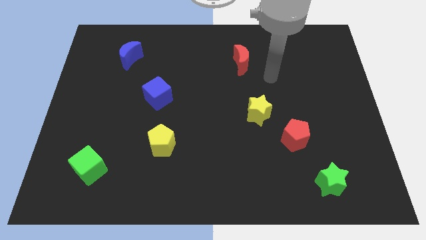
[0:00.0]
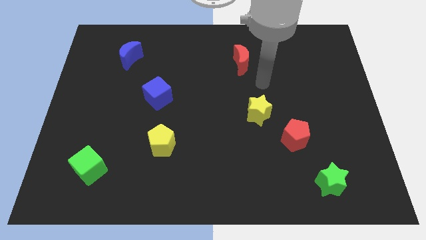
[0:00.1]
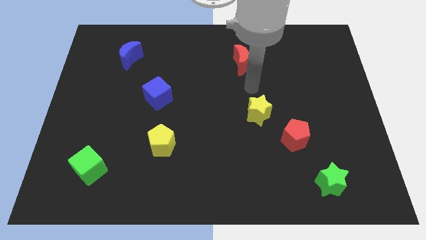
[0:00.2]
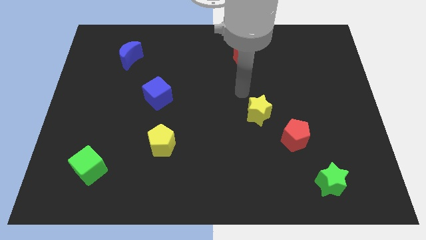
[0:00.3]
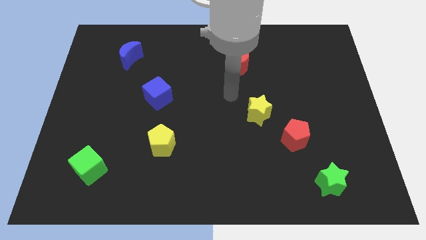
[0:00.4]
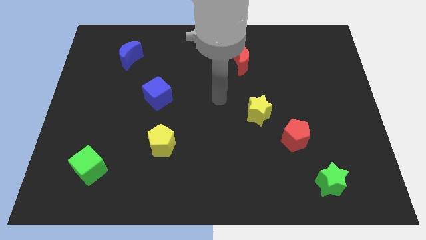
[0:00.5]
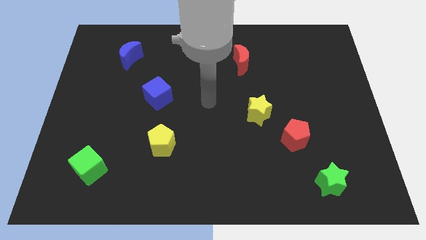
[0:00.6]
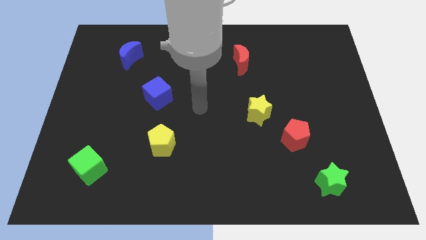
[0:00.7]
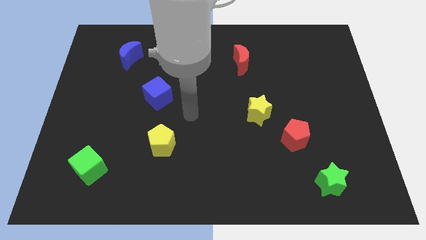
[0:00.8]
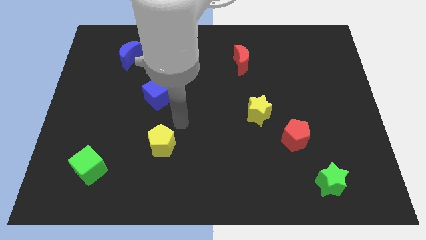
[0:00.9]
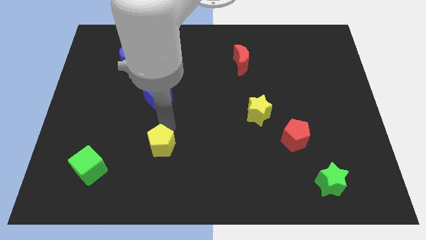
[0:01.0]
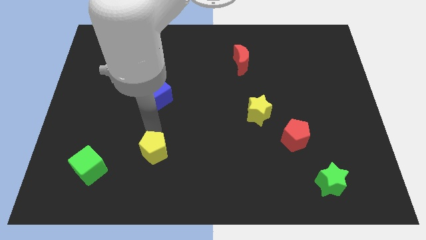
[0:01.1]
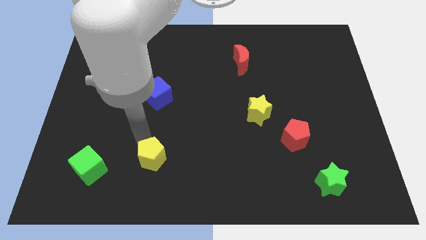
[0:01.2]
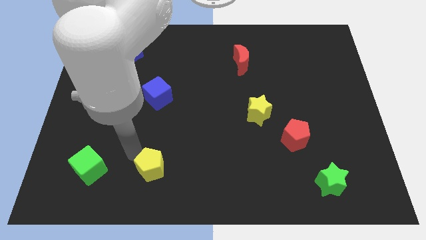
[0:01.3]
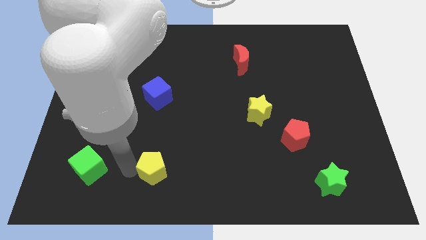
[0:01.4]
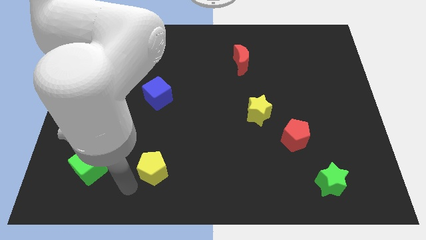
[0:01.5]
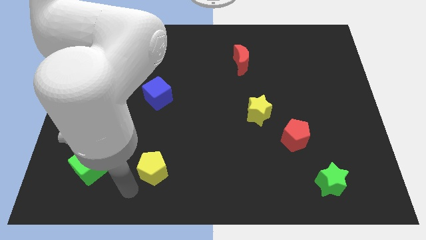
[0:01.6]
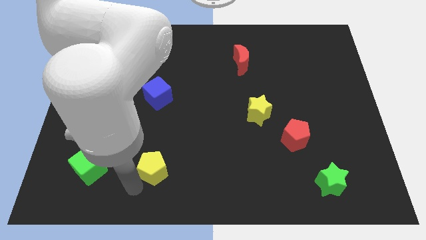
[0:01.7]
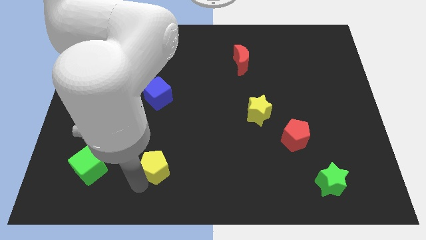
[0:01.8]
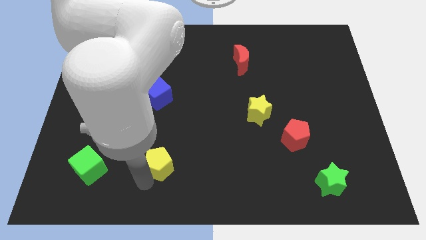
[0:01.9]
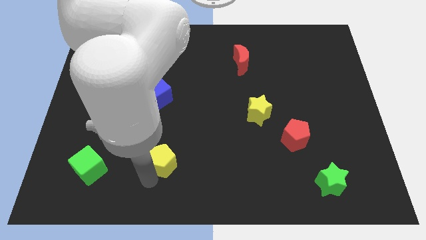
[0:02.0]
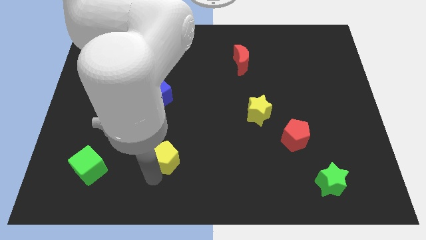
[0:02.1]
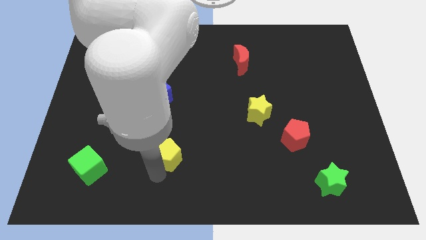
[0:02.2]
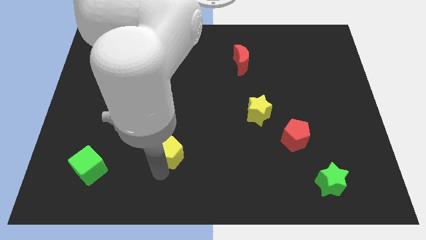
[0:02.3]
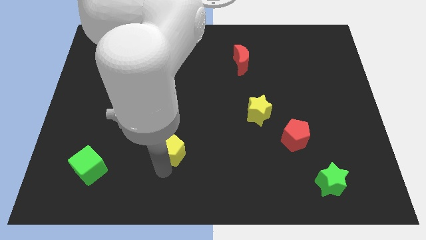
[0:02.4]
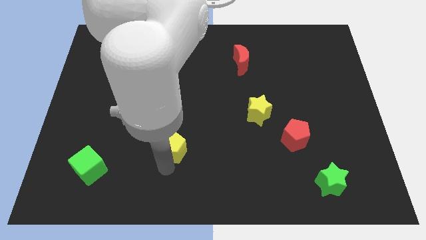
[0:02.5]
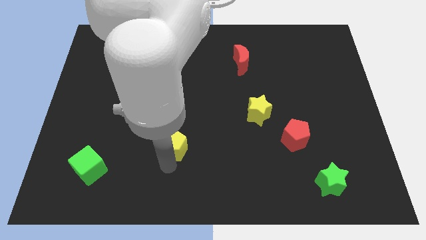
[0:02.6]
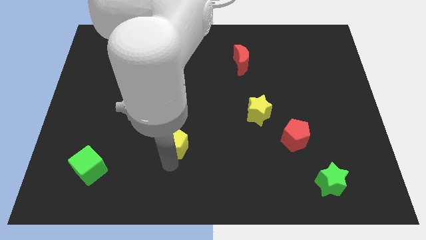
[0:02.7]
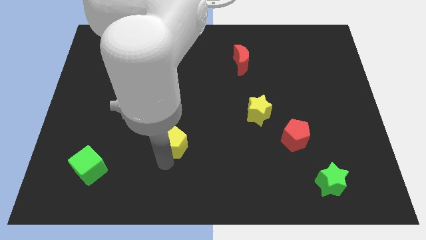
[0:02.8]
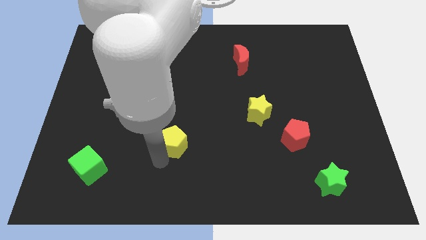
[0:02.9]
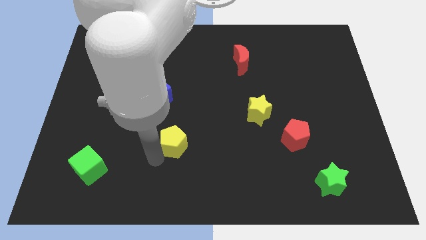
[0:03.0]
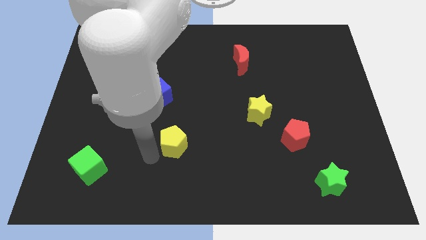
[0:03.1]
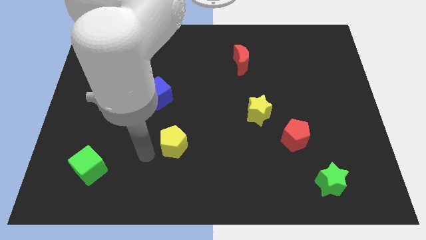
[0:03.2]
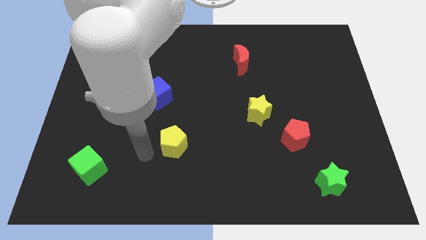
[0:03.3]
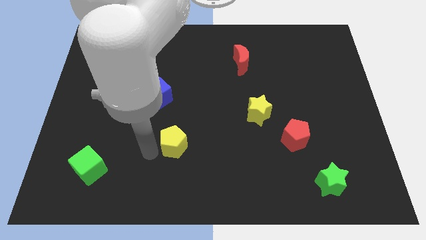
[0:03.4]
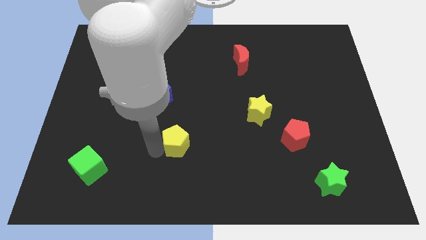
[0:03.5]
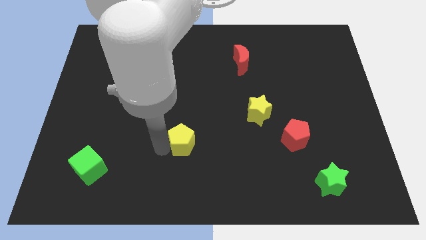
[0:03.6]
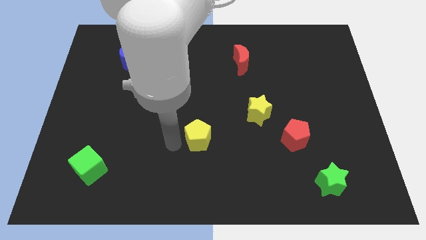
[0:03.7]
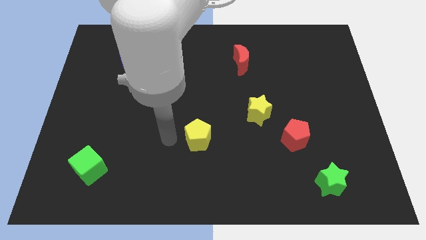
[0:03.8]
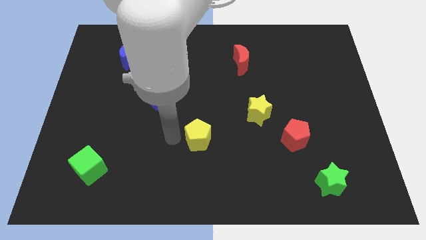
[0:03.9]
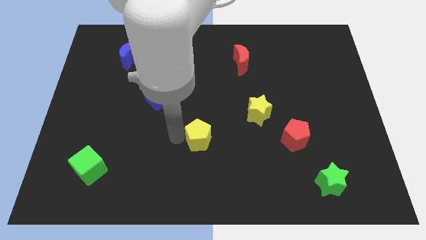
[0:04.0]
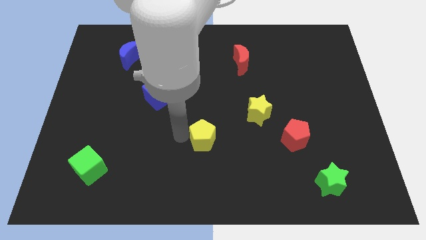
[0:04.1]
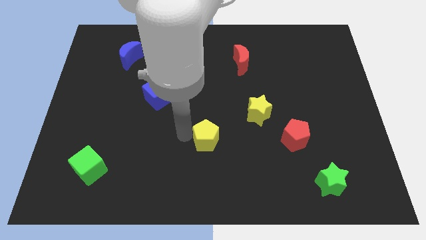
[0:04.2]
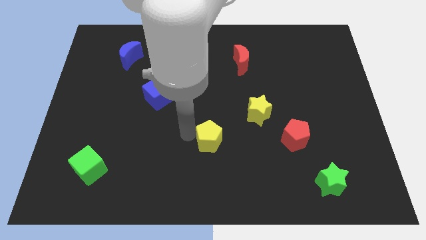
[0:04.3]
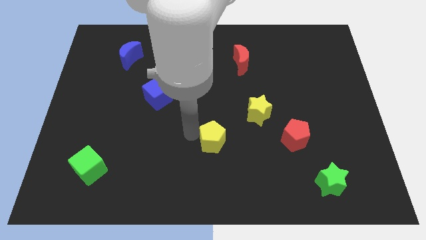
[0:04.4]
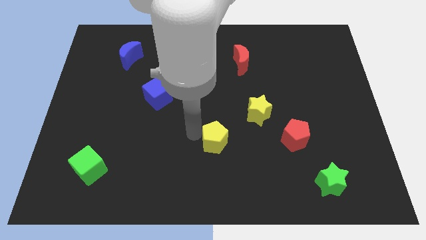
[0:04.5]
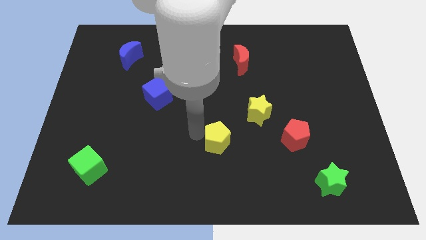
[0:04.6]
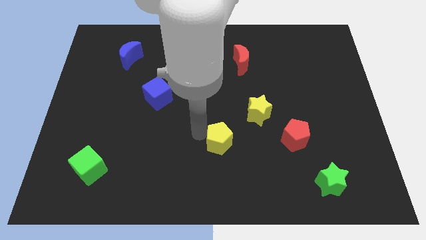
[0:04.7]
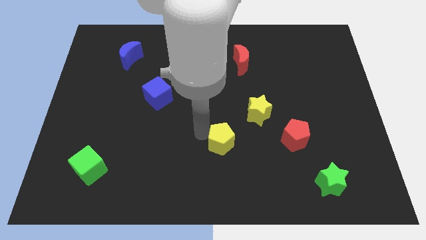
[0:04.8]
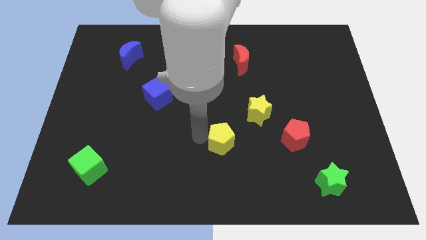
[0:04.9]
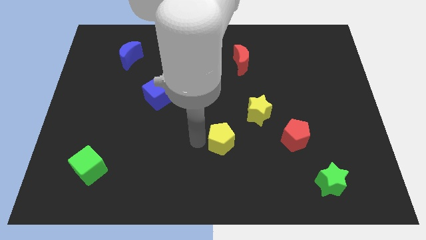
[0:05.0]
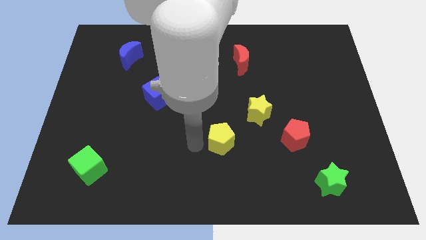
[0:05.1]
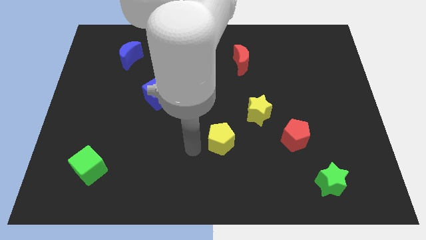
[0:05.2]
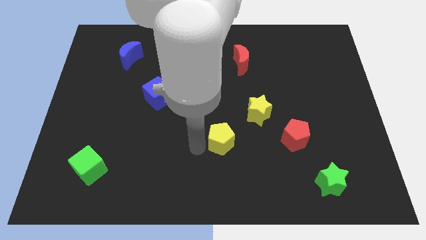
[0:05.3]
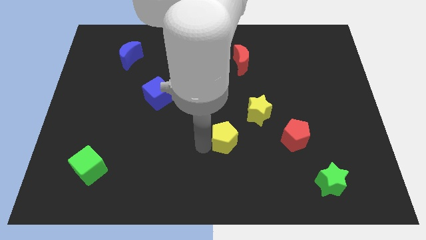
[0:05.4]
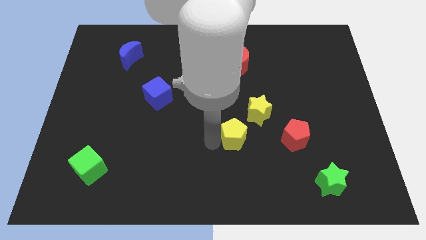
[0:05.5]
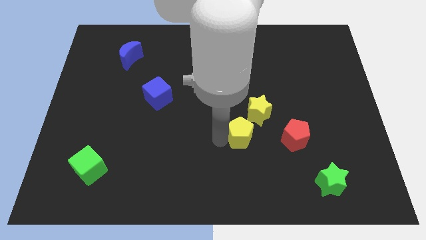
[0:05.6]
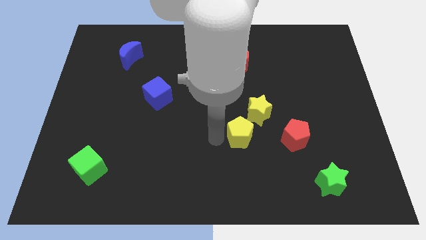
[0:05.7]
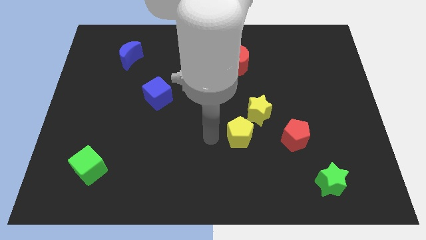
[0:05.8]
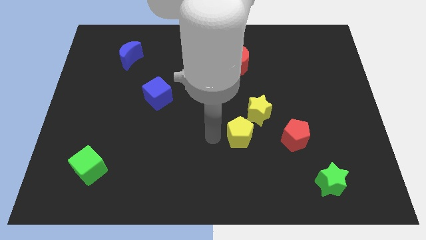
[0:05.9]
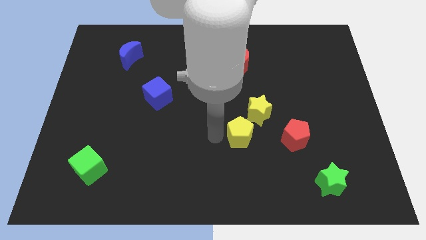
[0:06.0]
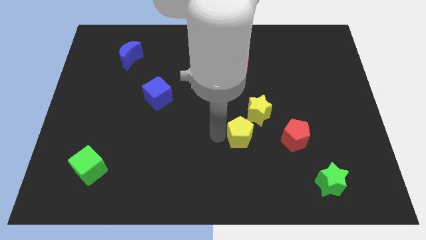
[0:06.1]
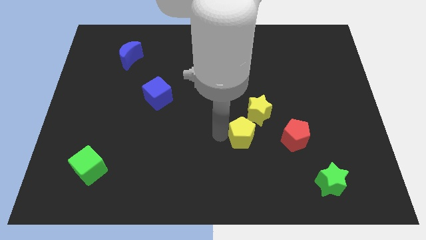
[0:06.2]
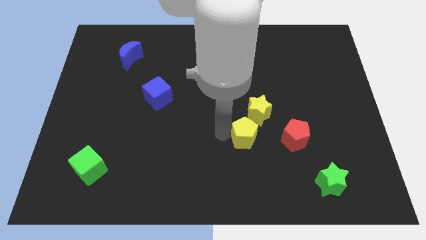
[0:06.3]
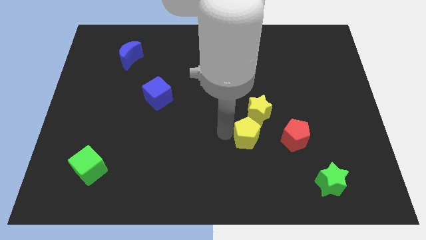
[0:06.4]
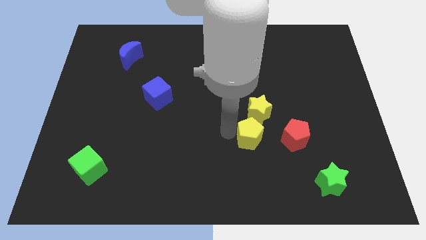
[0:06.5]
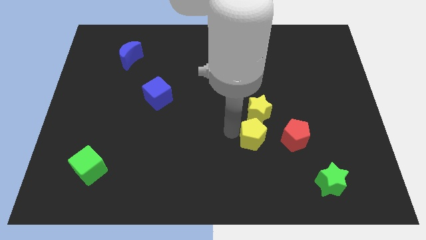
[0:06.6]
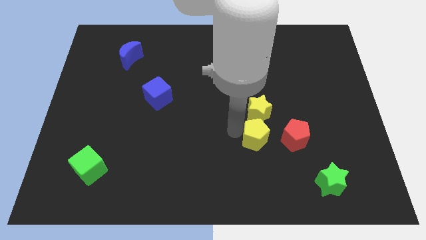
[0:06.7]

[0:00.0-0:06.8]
move the yellow pentagon to the right

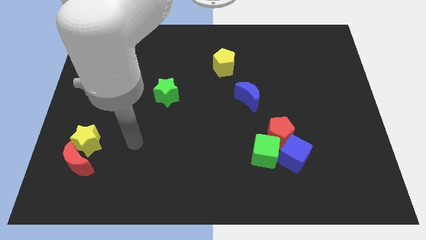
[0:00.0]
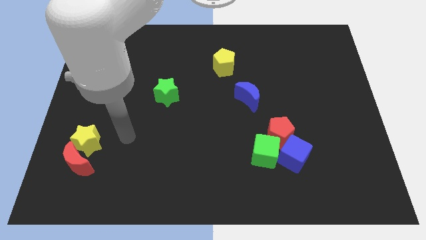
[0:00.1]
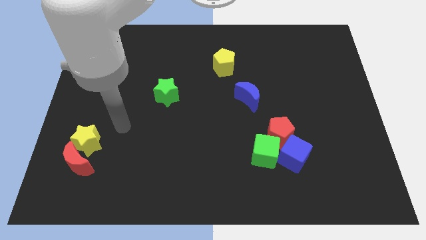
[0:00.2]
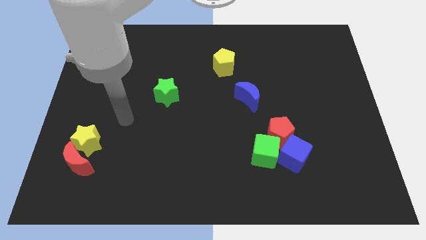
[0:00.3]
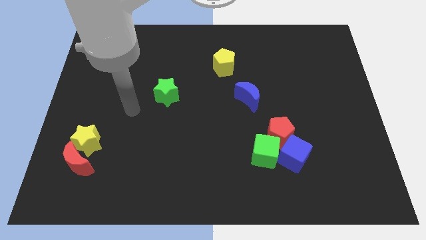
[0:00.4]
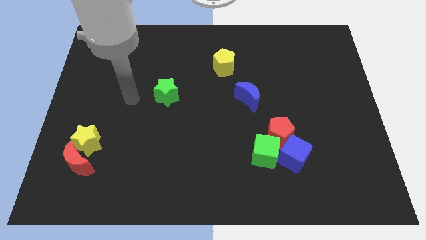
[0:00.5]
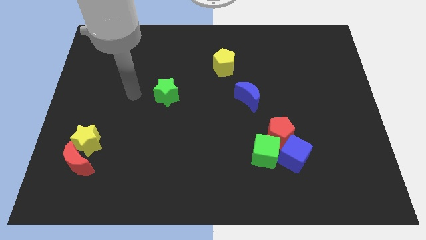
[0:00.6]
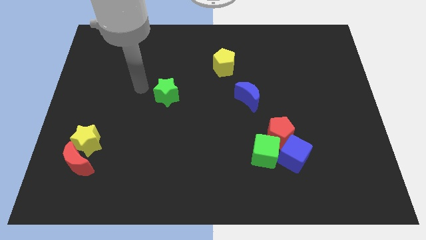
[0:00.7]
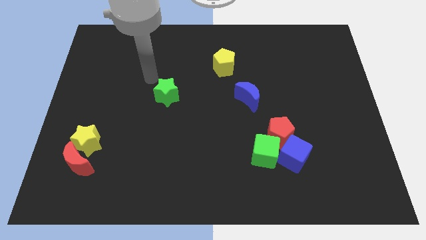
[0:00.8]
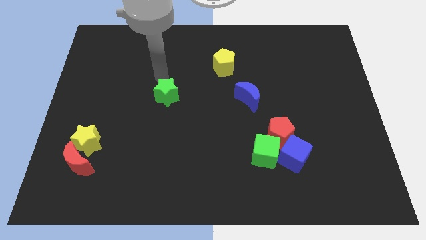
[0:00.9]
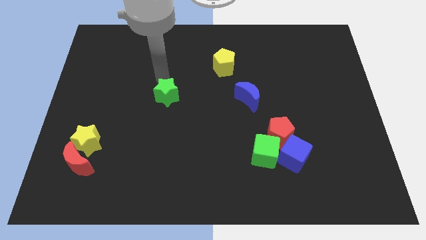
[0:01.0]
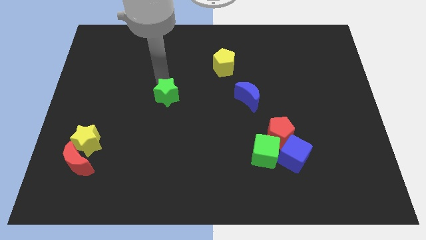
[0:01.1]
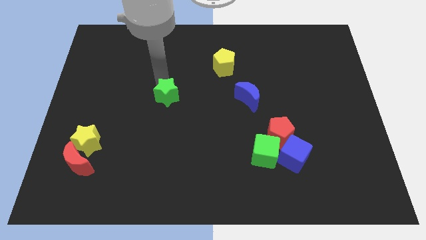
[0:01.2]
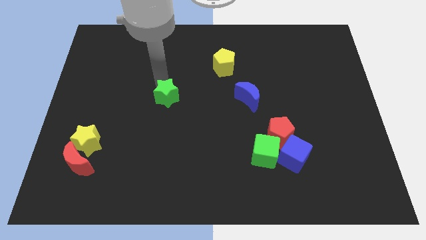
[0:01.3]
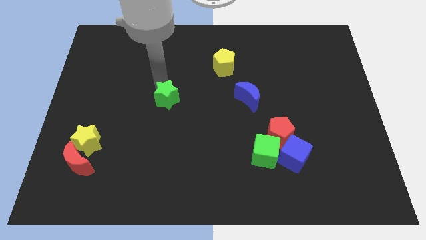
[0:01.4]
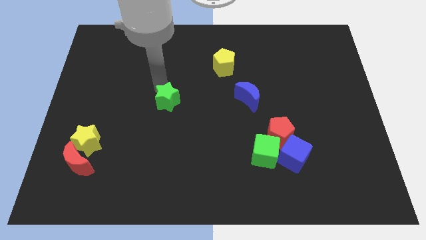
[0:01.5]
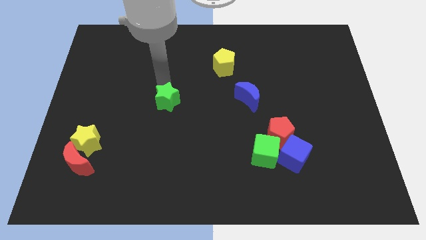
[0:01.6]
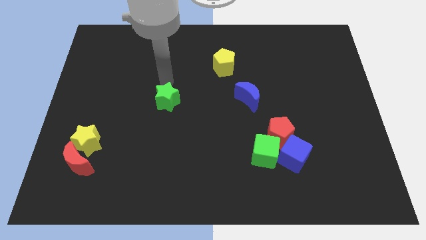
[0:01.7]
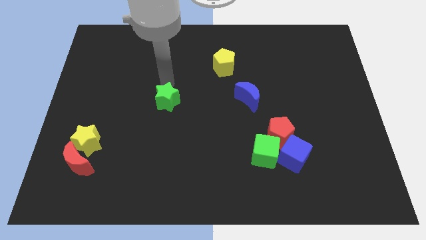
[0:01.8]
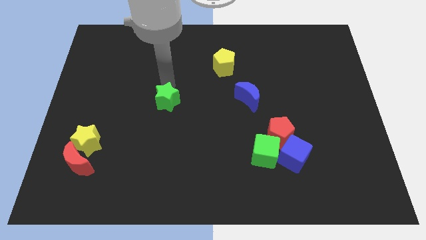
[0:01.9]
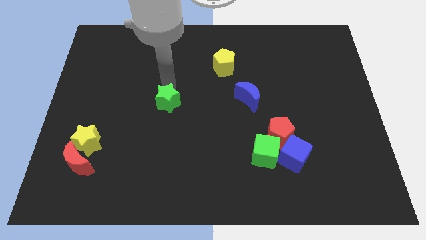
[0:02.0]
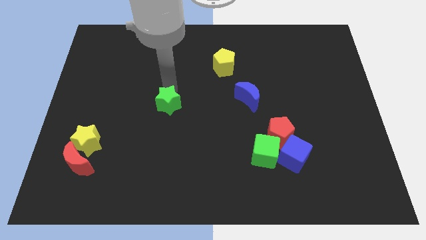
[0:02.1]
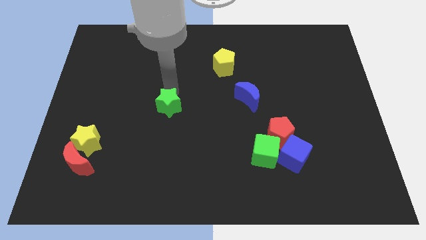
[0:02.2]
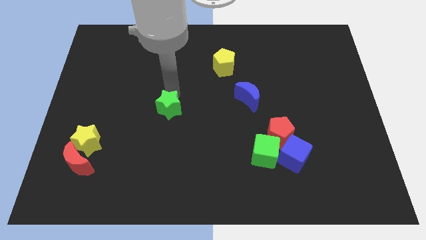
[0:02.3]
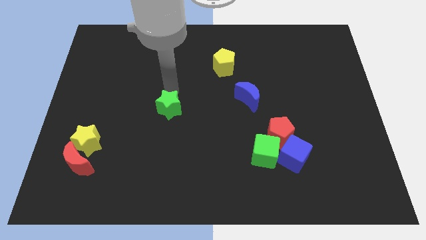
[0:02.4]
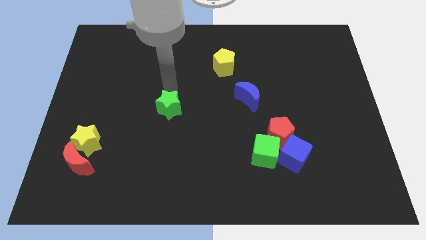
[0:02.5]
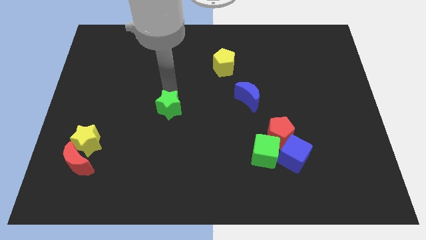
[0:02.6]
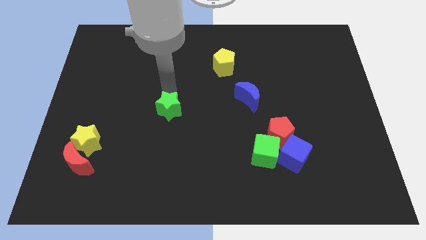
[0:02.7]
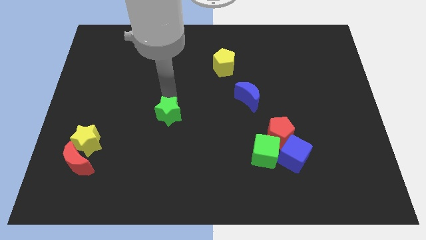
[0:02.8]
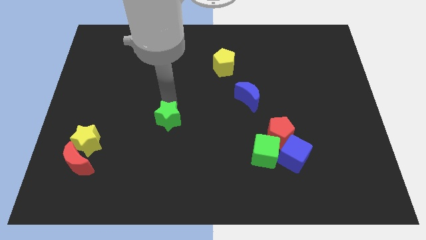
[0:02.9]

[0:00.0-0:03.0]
push the green star down a little bit
